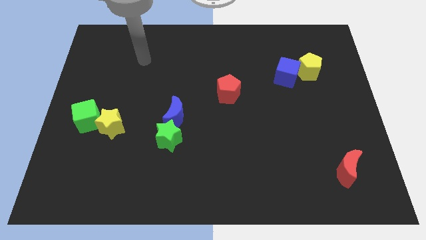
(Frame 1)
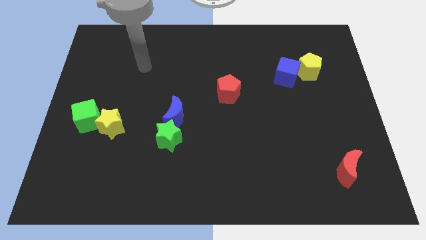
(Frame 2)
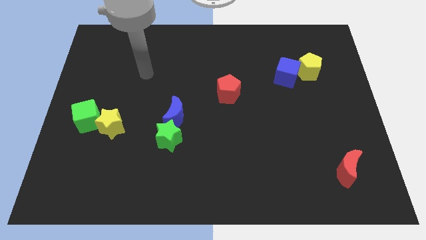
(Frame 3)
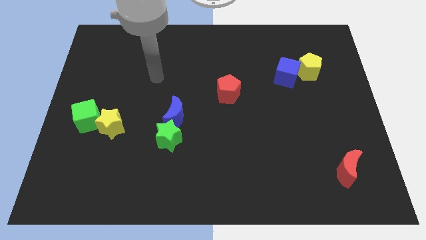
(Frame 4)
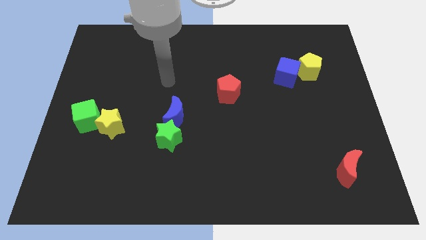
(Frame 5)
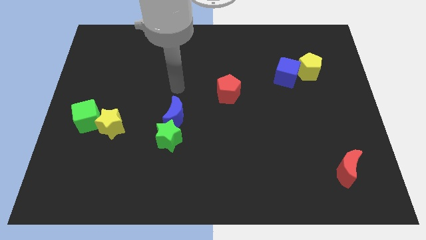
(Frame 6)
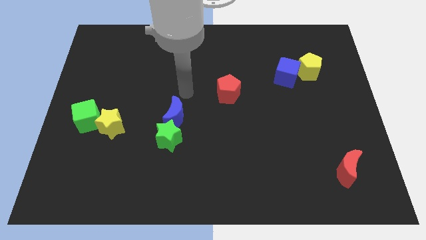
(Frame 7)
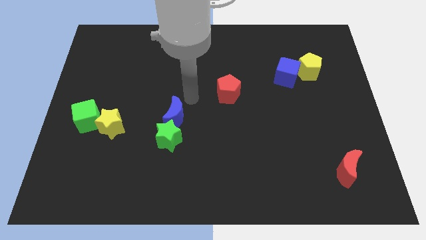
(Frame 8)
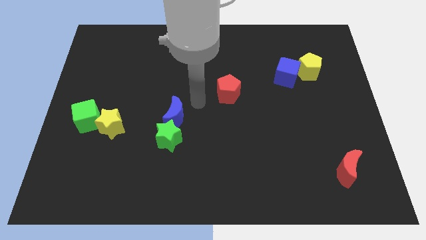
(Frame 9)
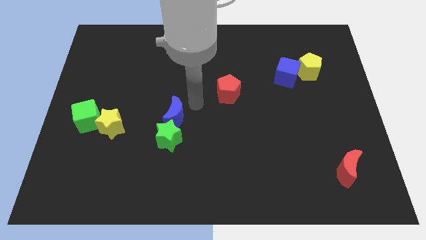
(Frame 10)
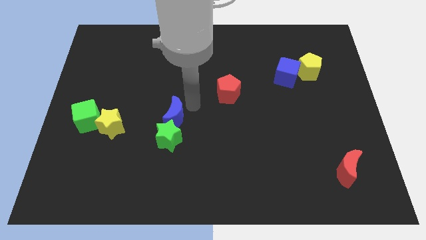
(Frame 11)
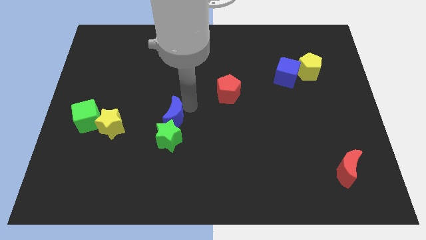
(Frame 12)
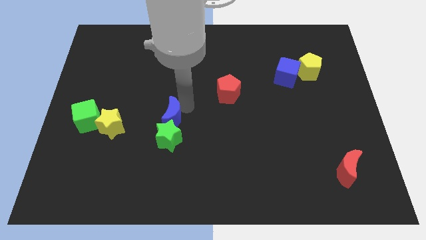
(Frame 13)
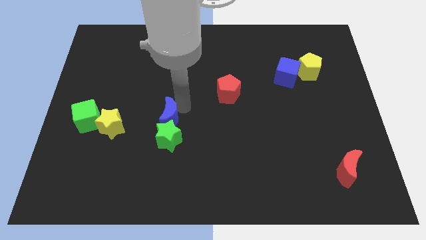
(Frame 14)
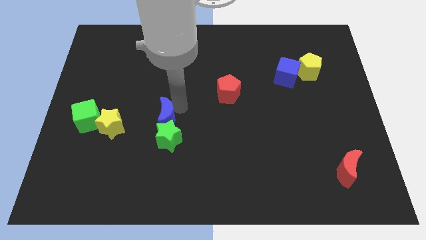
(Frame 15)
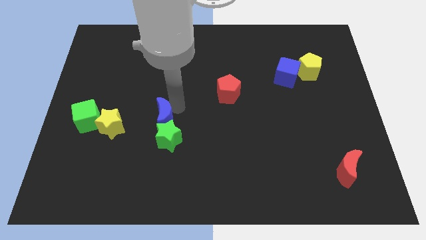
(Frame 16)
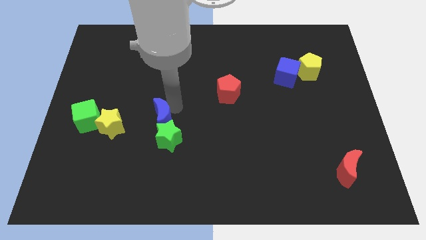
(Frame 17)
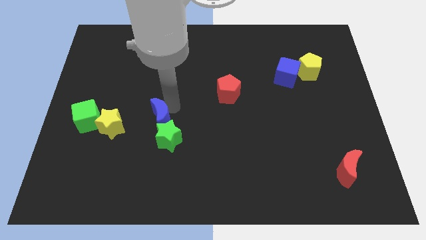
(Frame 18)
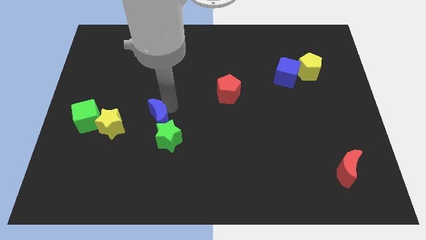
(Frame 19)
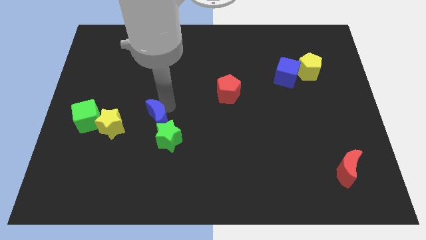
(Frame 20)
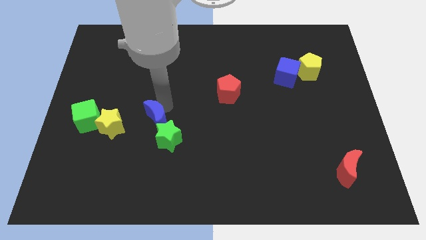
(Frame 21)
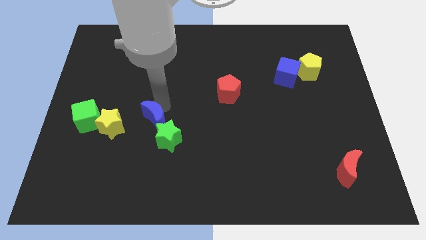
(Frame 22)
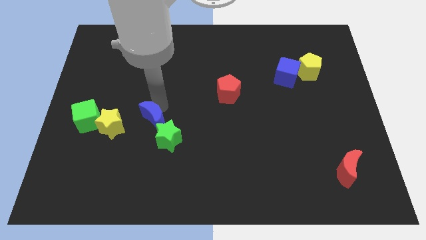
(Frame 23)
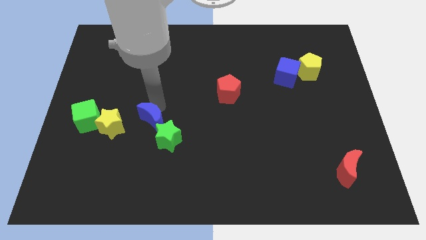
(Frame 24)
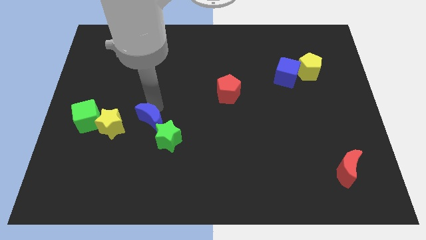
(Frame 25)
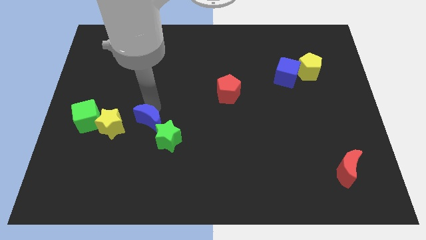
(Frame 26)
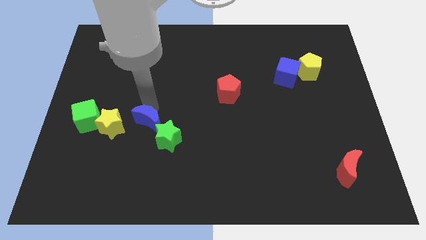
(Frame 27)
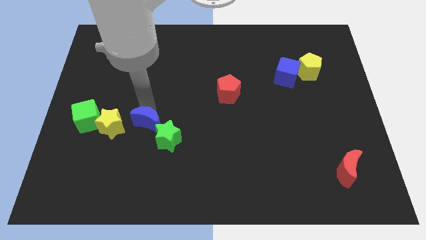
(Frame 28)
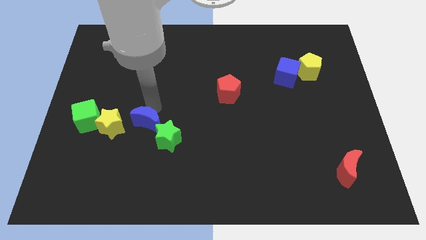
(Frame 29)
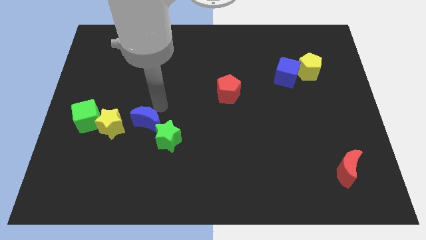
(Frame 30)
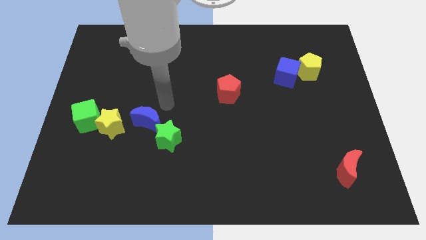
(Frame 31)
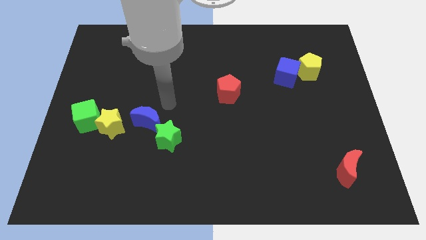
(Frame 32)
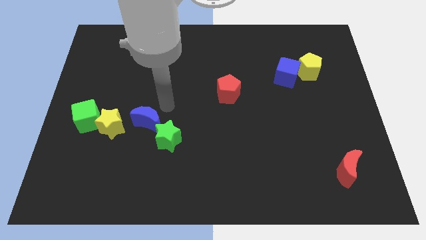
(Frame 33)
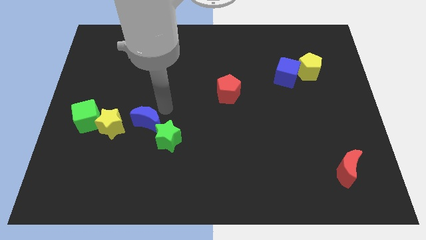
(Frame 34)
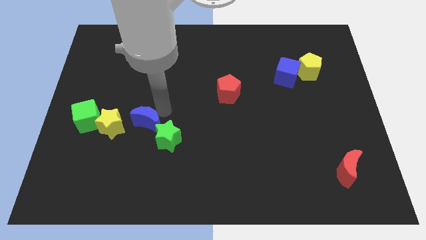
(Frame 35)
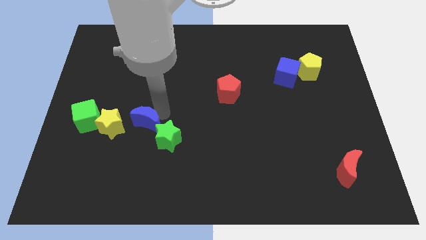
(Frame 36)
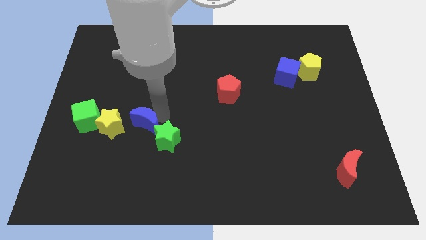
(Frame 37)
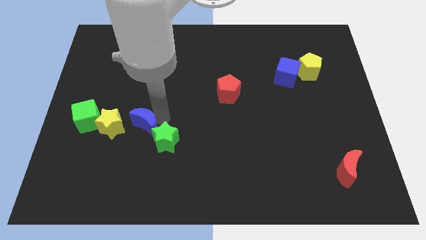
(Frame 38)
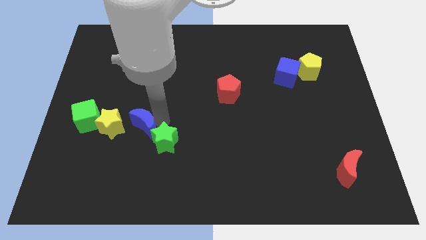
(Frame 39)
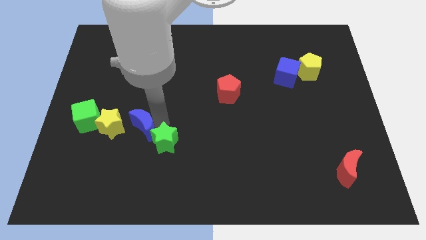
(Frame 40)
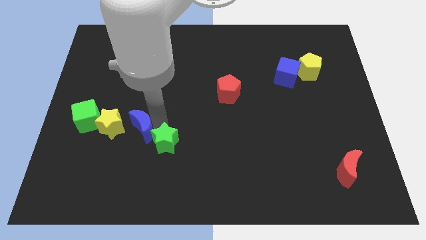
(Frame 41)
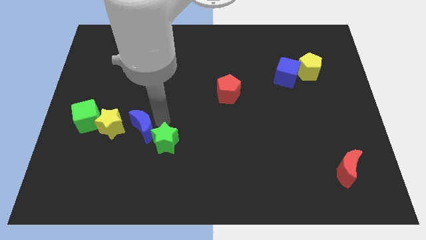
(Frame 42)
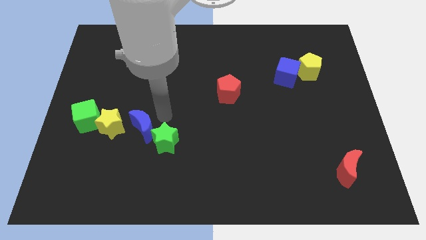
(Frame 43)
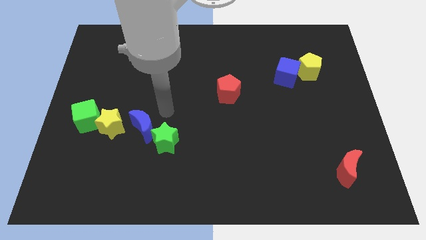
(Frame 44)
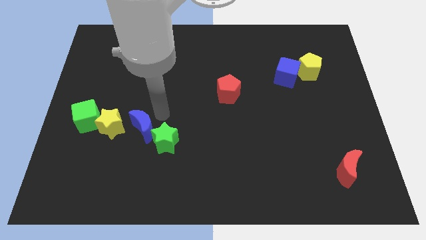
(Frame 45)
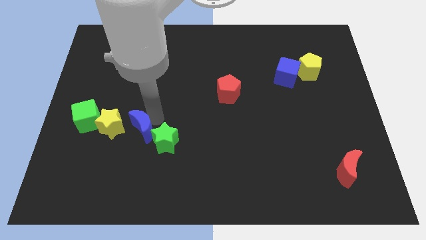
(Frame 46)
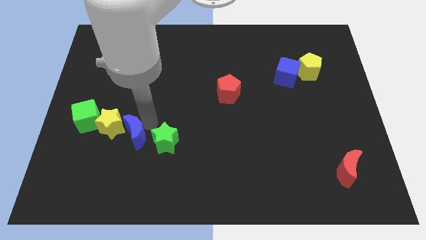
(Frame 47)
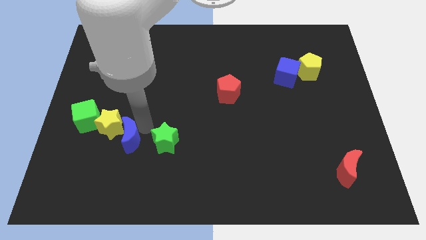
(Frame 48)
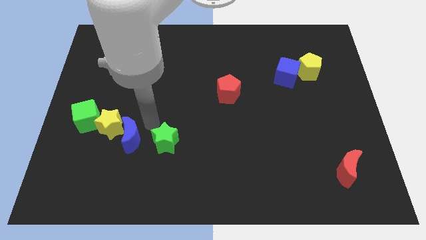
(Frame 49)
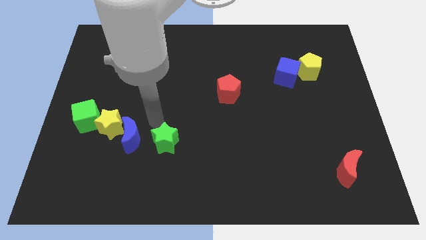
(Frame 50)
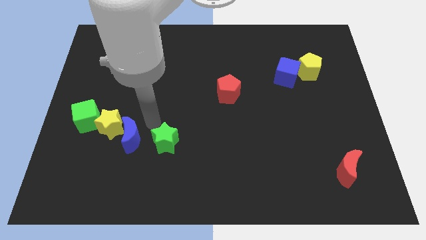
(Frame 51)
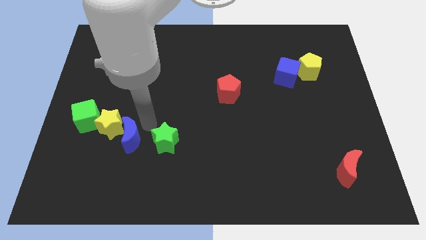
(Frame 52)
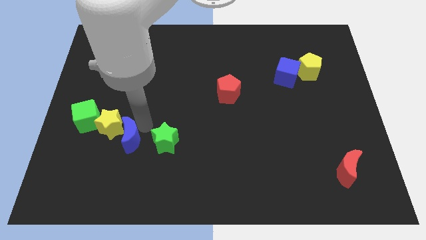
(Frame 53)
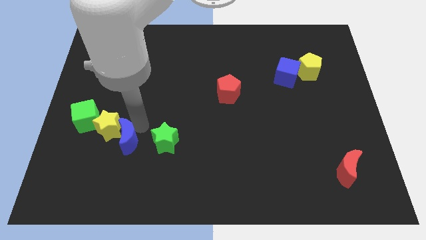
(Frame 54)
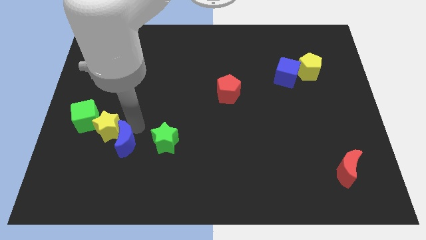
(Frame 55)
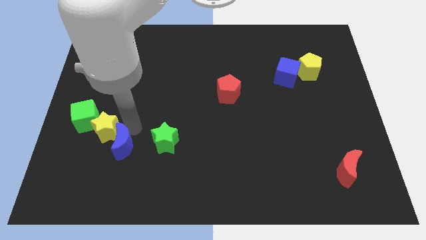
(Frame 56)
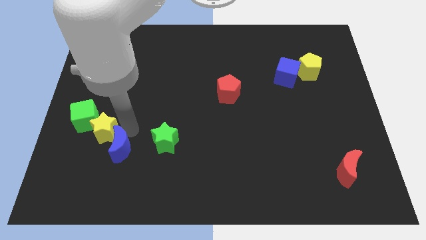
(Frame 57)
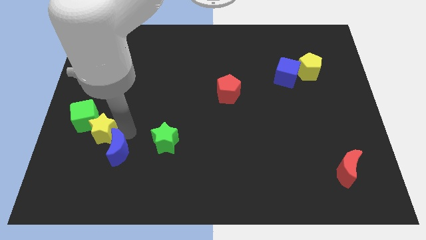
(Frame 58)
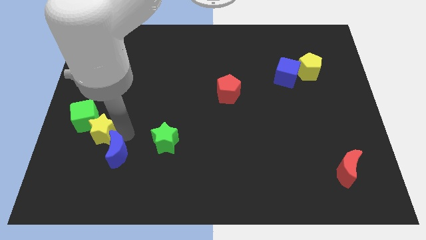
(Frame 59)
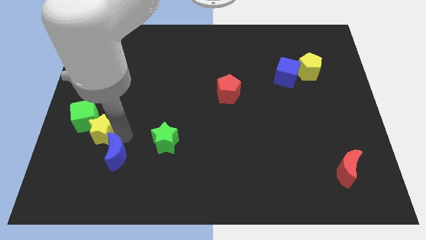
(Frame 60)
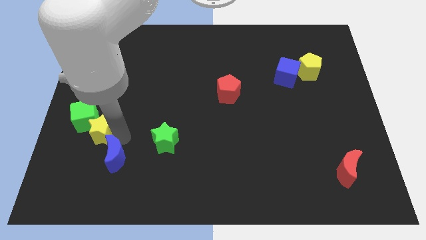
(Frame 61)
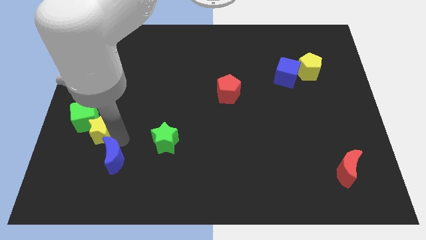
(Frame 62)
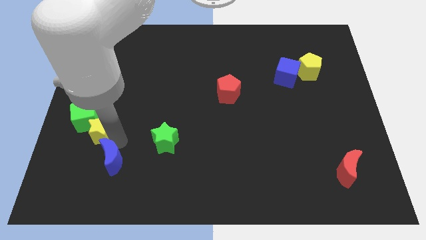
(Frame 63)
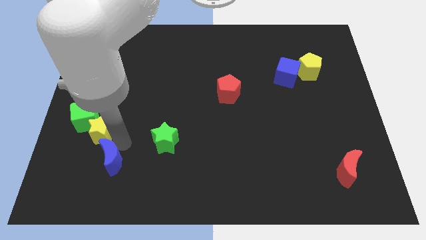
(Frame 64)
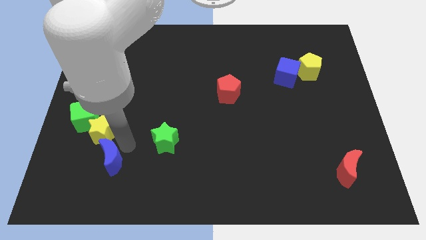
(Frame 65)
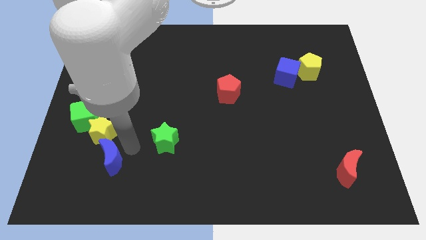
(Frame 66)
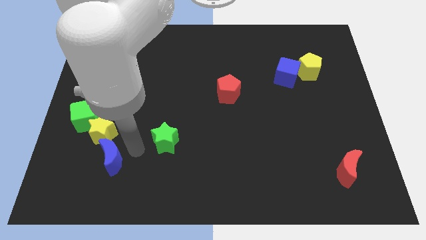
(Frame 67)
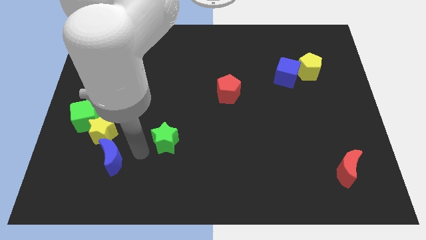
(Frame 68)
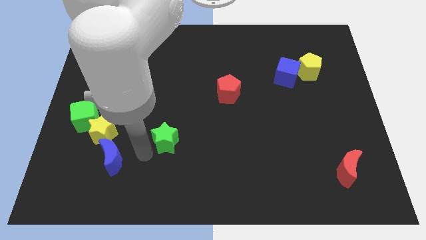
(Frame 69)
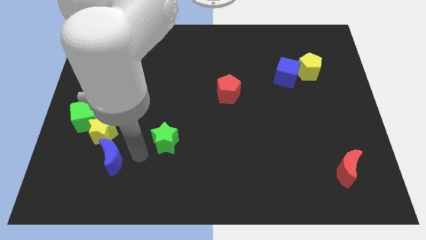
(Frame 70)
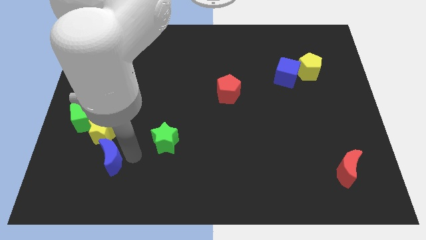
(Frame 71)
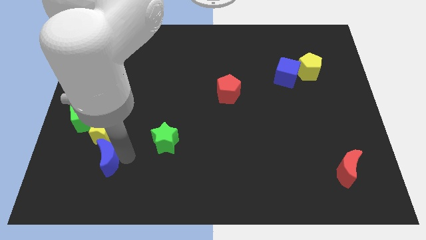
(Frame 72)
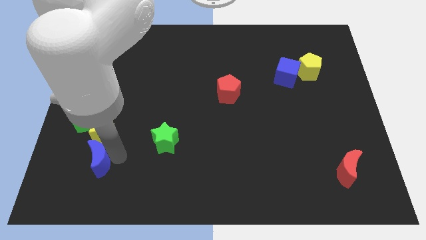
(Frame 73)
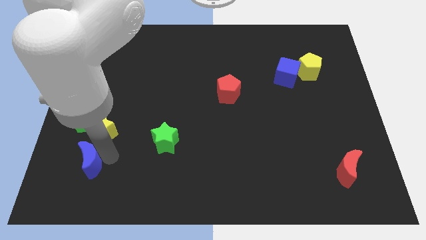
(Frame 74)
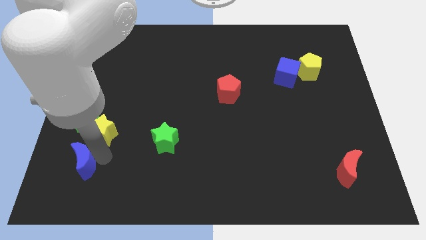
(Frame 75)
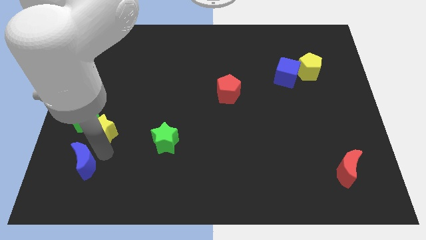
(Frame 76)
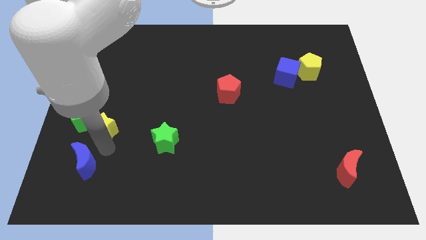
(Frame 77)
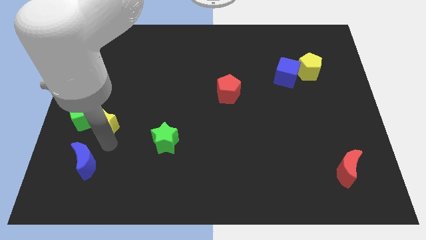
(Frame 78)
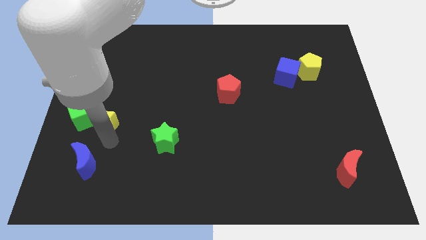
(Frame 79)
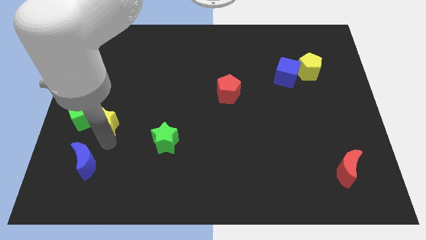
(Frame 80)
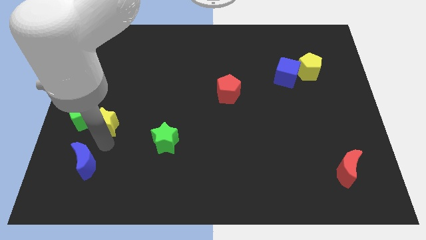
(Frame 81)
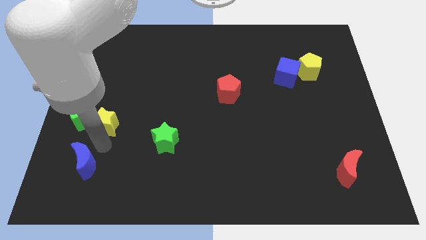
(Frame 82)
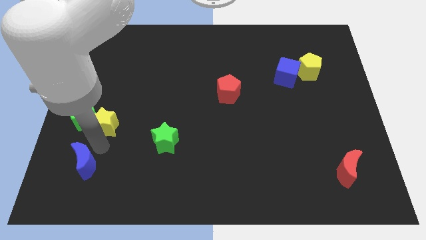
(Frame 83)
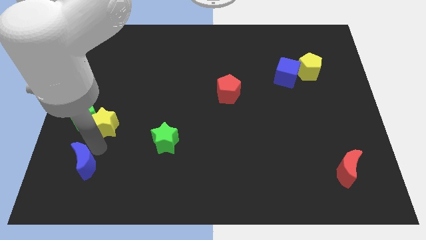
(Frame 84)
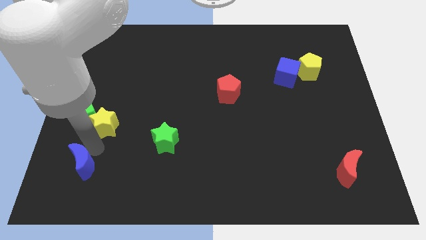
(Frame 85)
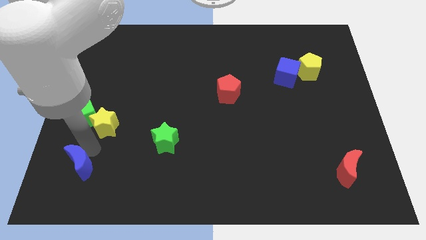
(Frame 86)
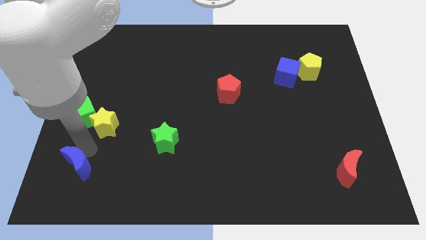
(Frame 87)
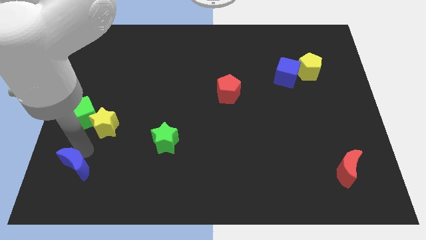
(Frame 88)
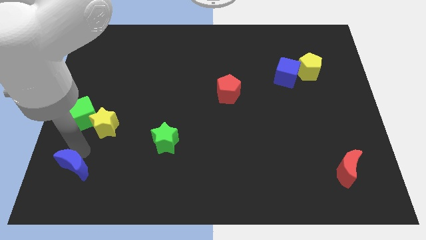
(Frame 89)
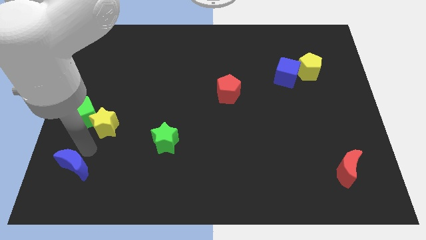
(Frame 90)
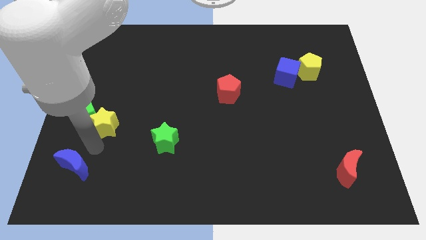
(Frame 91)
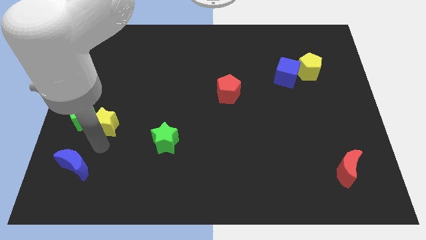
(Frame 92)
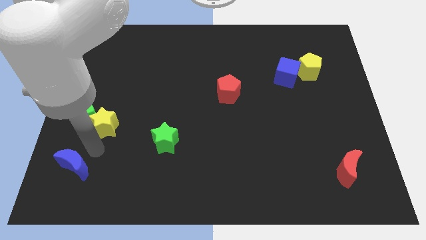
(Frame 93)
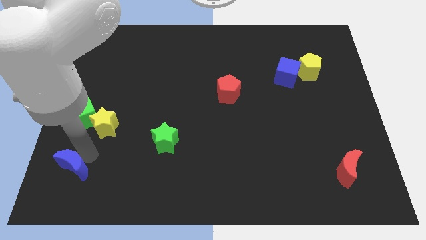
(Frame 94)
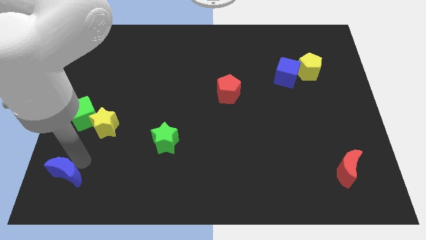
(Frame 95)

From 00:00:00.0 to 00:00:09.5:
put the blue moon to the lower left corner
